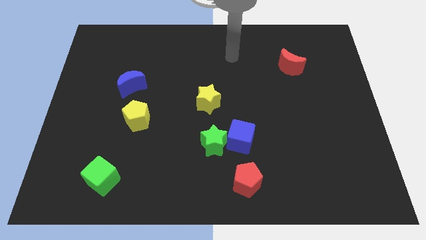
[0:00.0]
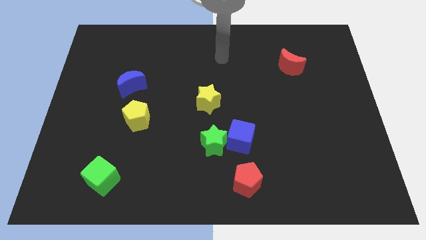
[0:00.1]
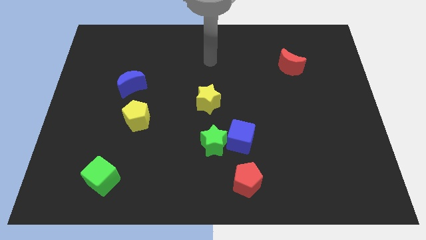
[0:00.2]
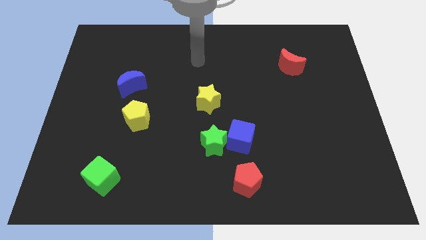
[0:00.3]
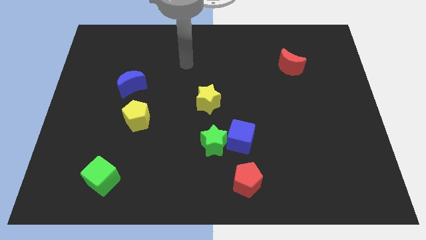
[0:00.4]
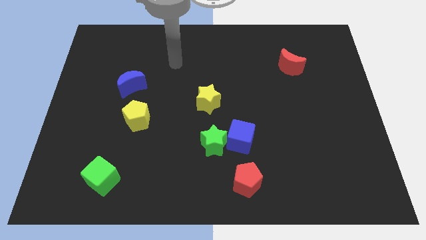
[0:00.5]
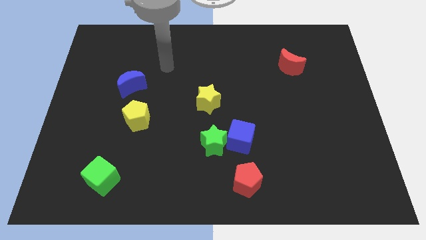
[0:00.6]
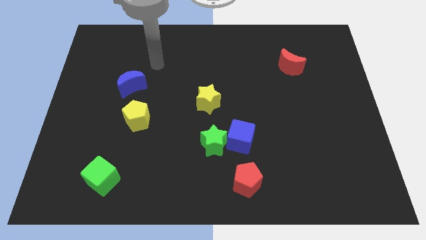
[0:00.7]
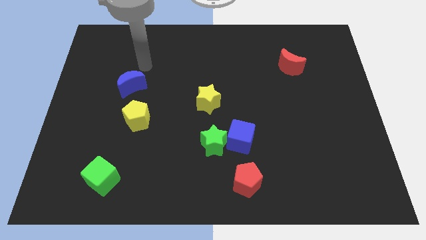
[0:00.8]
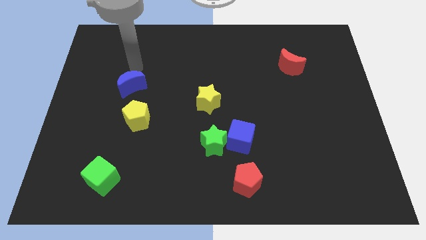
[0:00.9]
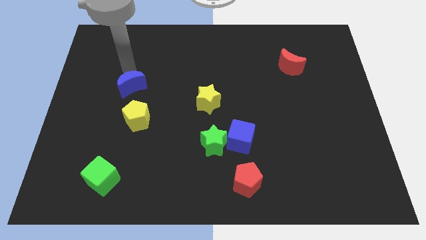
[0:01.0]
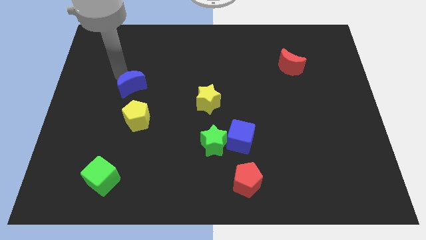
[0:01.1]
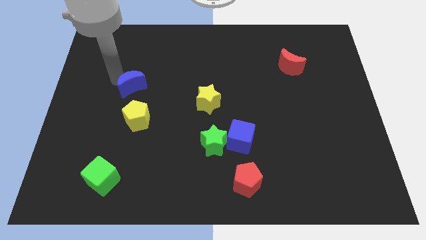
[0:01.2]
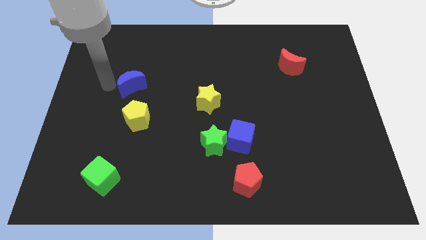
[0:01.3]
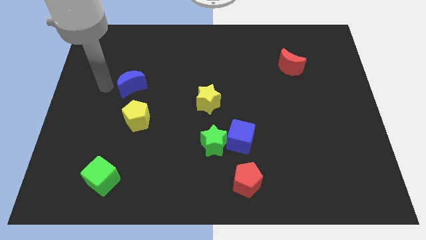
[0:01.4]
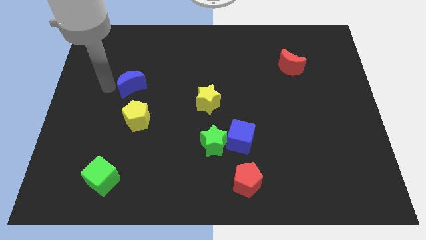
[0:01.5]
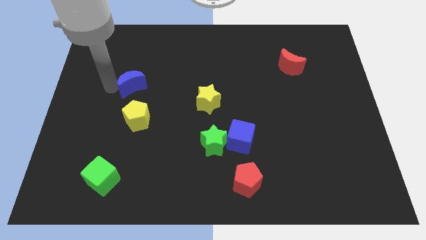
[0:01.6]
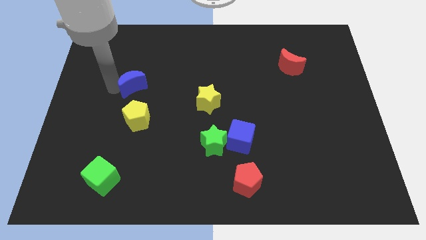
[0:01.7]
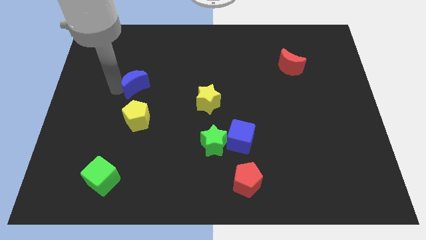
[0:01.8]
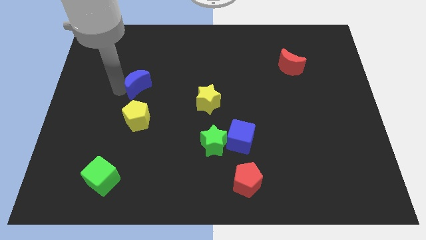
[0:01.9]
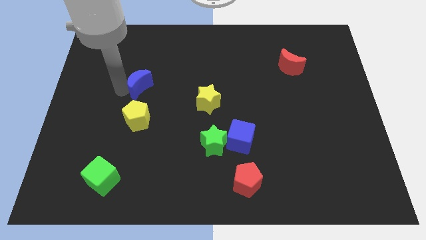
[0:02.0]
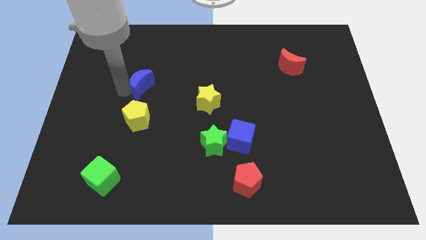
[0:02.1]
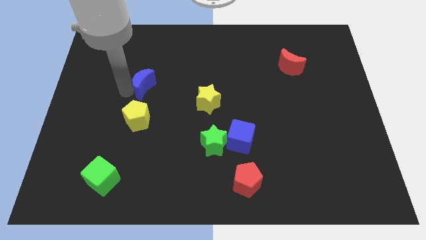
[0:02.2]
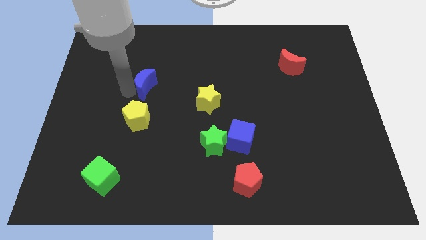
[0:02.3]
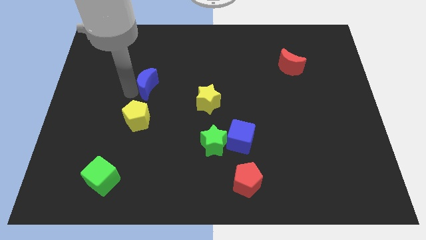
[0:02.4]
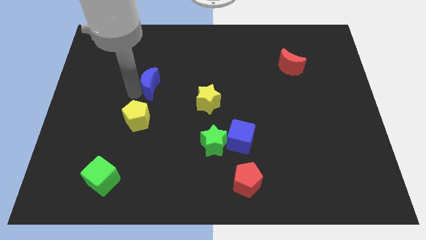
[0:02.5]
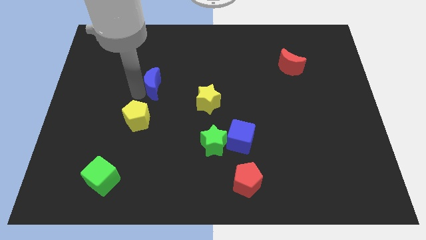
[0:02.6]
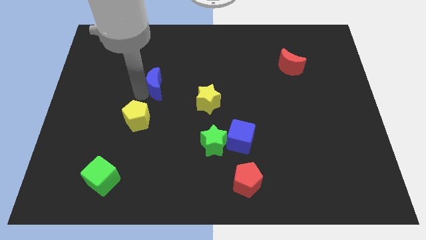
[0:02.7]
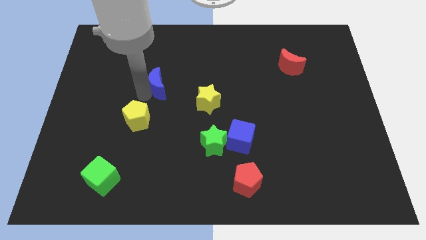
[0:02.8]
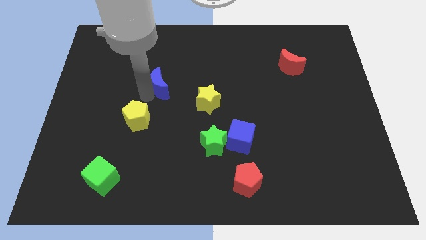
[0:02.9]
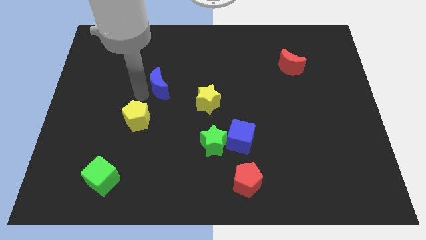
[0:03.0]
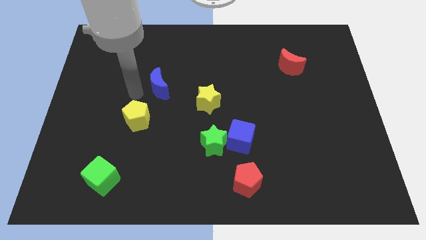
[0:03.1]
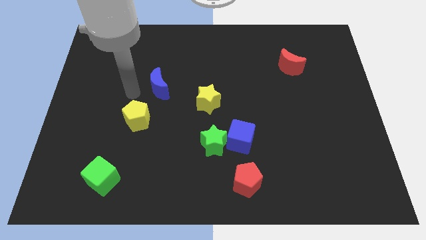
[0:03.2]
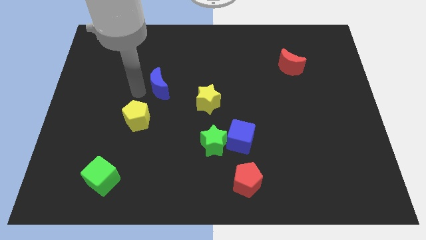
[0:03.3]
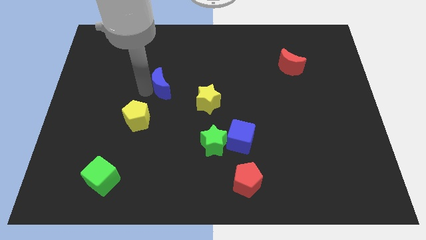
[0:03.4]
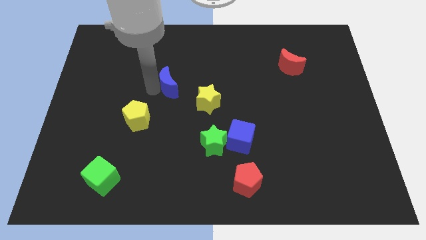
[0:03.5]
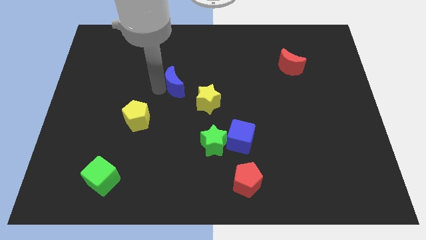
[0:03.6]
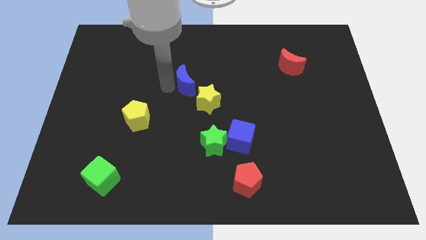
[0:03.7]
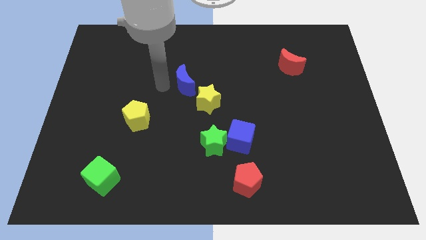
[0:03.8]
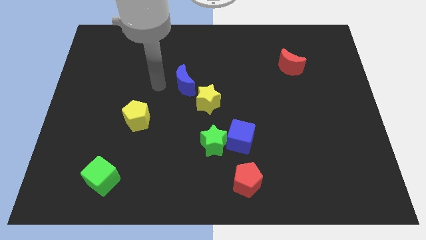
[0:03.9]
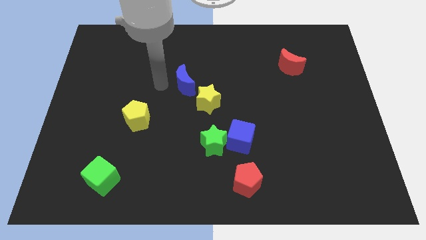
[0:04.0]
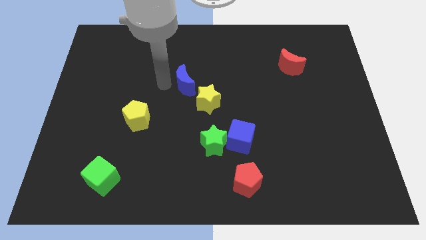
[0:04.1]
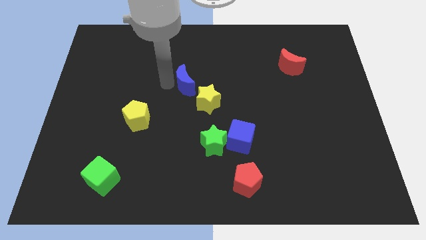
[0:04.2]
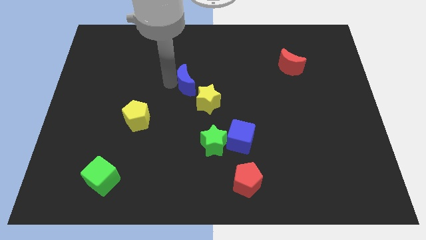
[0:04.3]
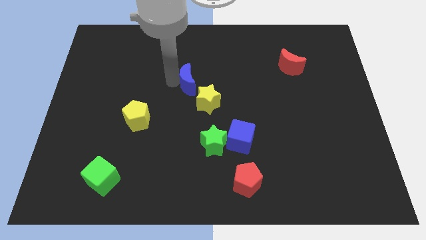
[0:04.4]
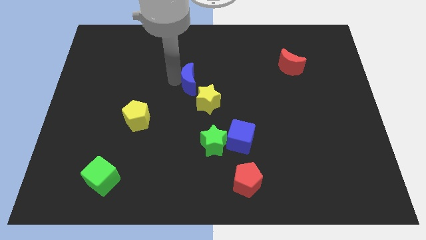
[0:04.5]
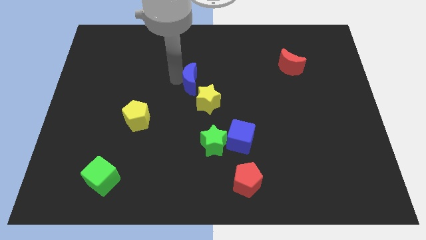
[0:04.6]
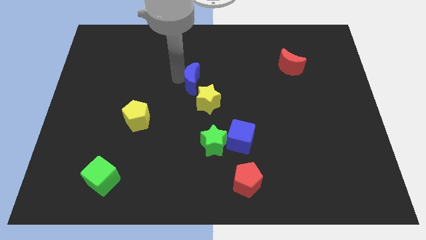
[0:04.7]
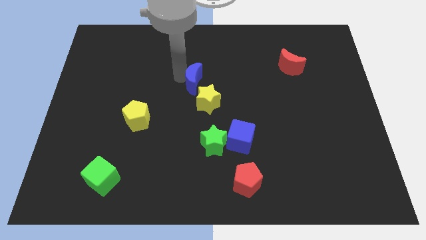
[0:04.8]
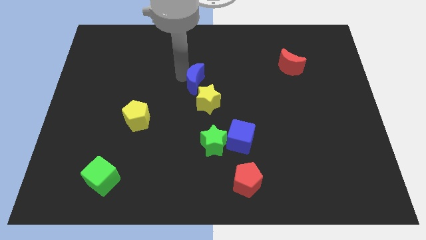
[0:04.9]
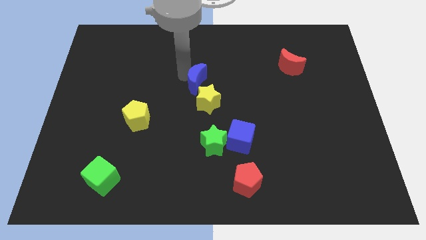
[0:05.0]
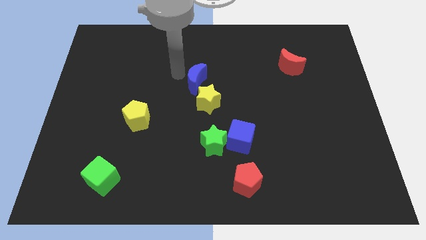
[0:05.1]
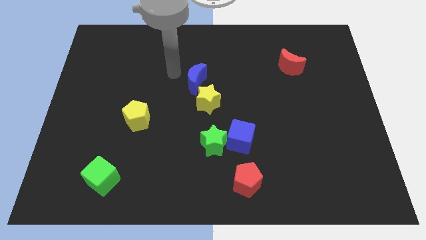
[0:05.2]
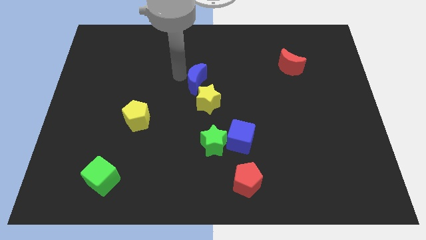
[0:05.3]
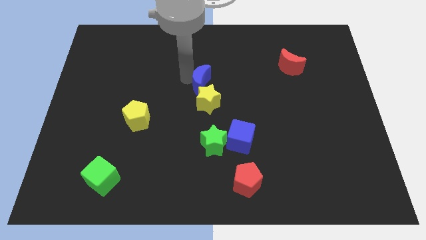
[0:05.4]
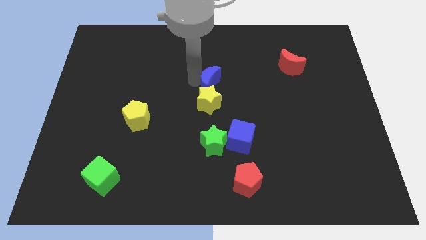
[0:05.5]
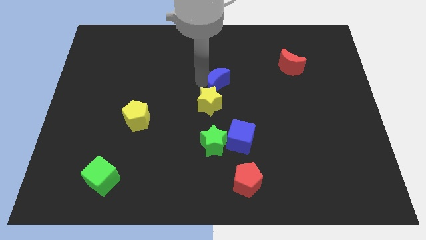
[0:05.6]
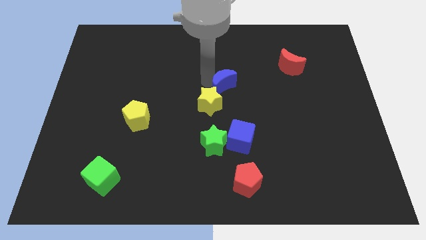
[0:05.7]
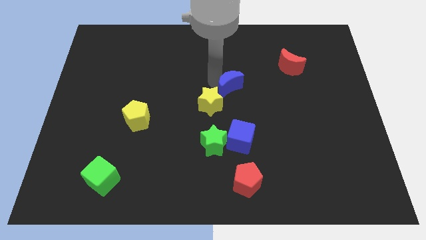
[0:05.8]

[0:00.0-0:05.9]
slide the blue moon above the blue cube

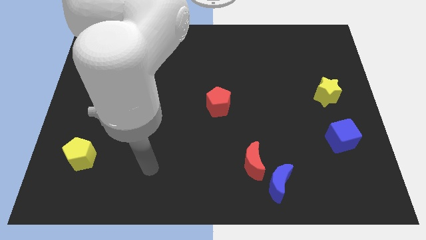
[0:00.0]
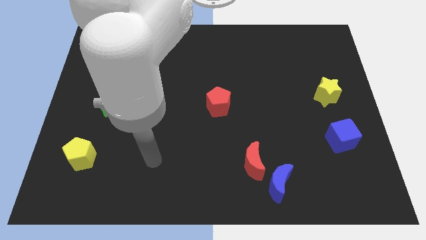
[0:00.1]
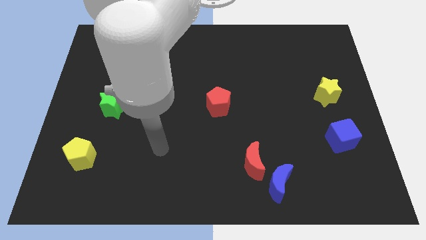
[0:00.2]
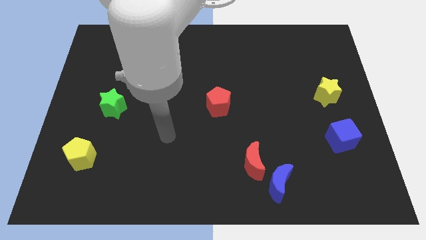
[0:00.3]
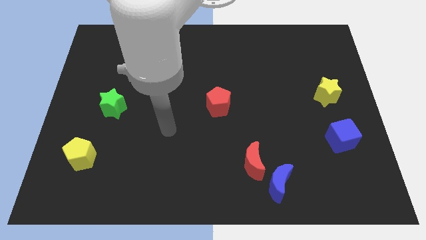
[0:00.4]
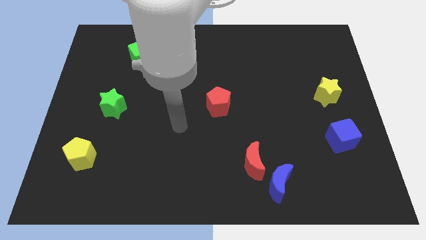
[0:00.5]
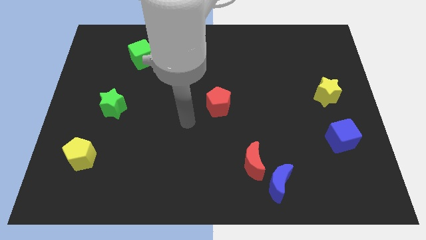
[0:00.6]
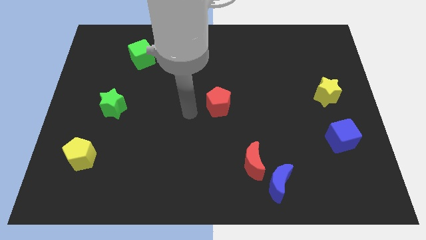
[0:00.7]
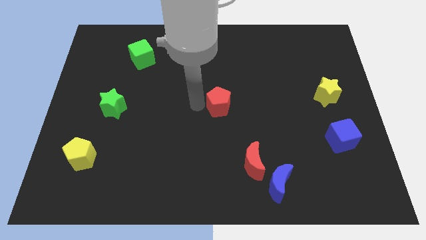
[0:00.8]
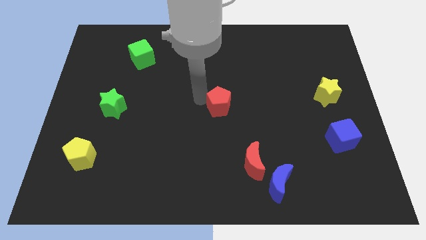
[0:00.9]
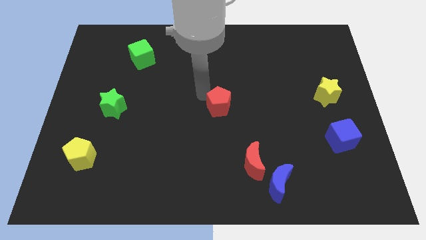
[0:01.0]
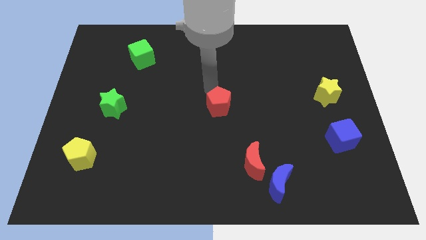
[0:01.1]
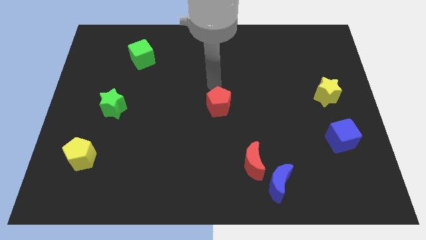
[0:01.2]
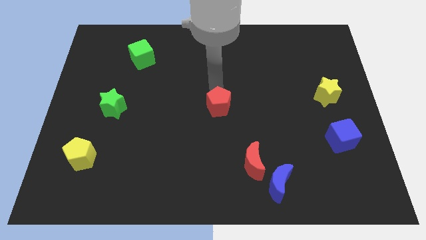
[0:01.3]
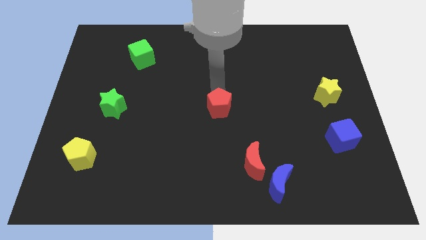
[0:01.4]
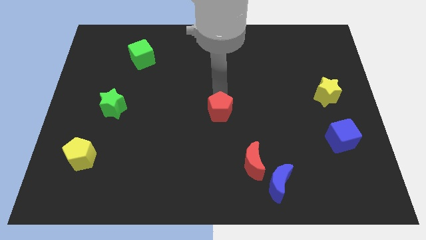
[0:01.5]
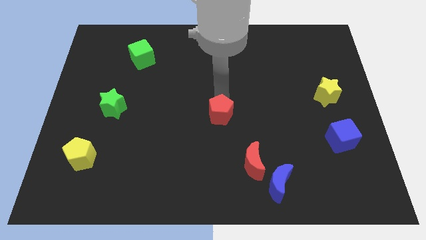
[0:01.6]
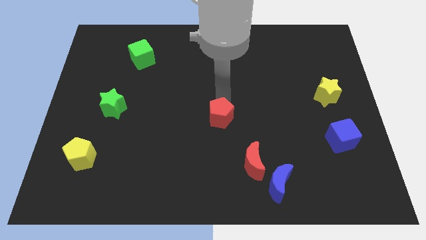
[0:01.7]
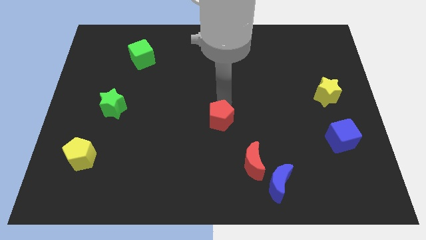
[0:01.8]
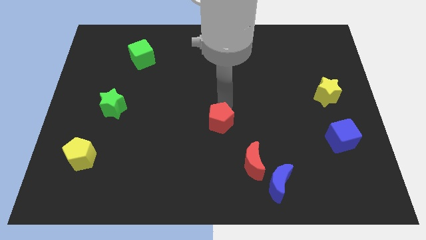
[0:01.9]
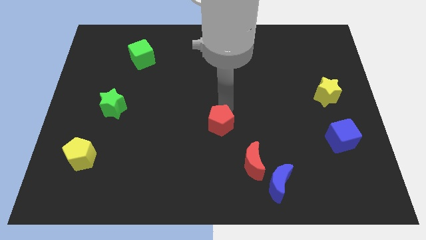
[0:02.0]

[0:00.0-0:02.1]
push the red pentagon to the top left of the red moon
